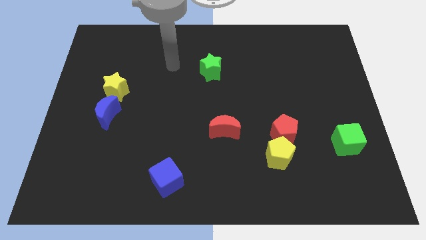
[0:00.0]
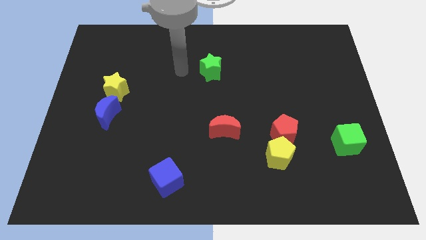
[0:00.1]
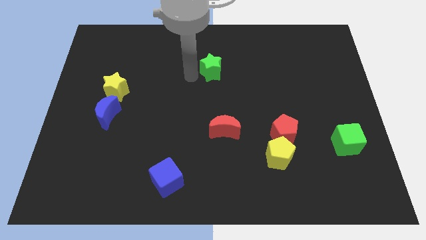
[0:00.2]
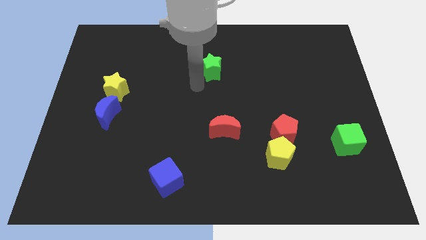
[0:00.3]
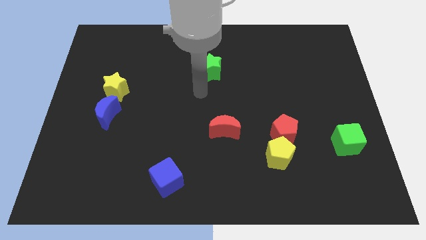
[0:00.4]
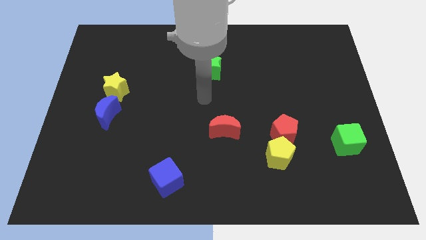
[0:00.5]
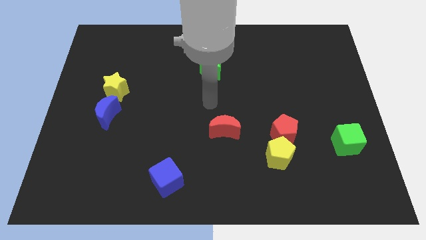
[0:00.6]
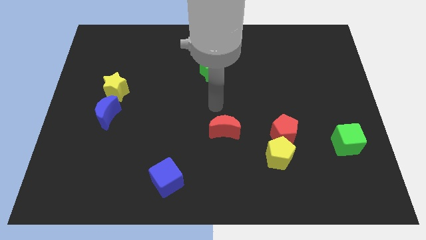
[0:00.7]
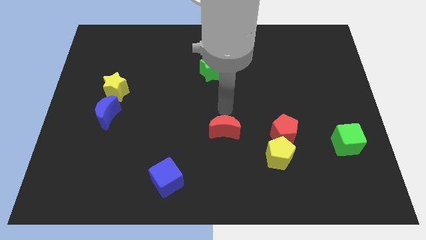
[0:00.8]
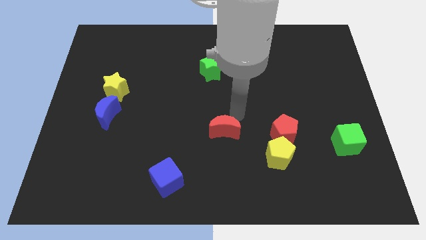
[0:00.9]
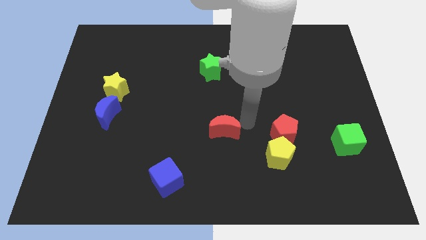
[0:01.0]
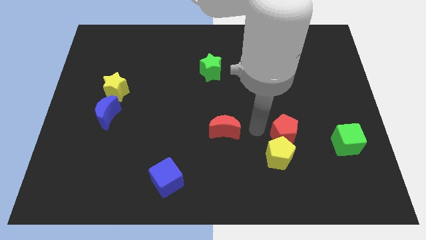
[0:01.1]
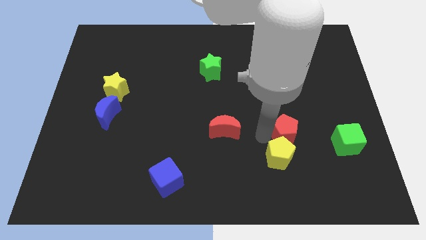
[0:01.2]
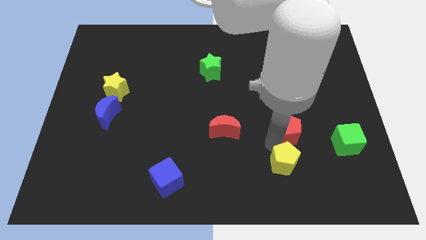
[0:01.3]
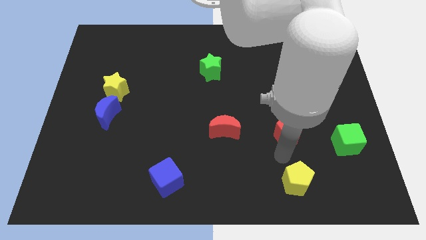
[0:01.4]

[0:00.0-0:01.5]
move the red pentagon away from the yellow pentagon

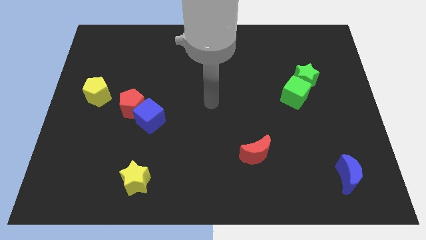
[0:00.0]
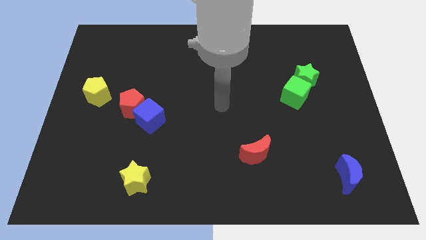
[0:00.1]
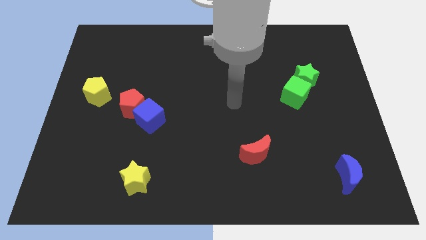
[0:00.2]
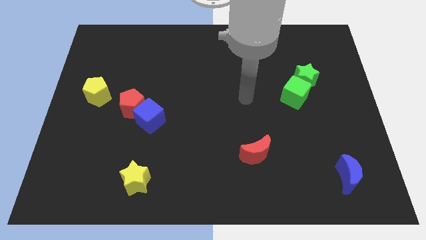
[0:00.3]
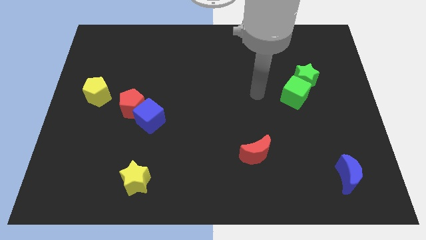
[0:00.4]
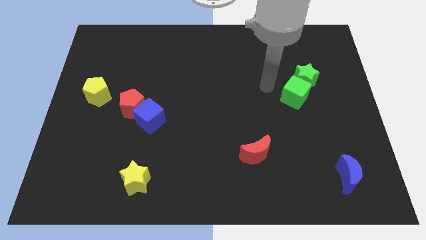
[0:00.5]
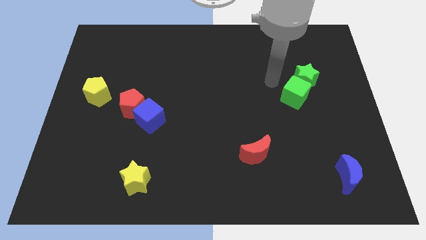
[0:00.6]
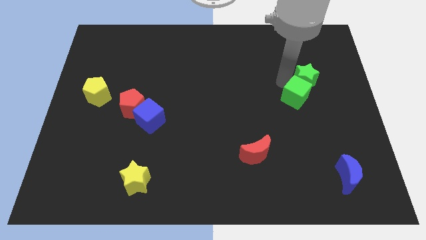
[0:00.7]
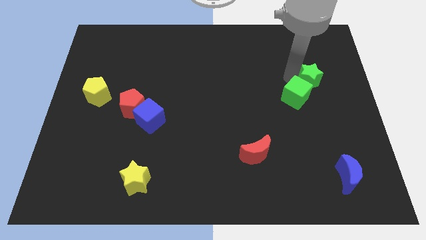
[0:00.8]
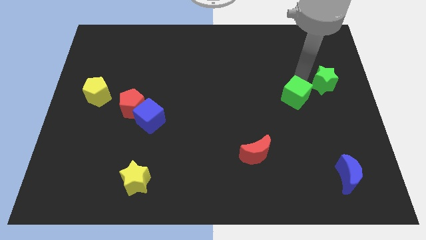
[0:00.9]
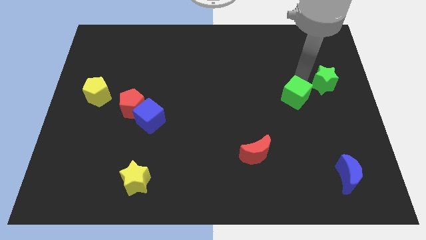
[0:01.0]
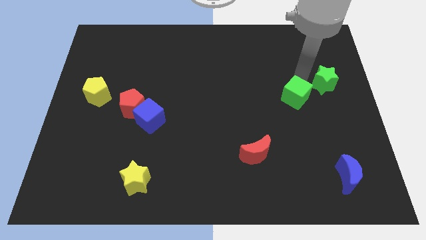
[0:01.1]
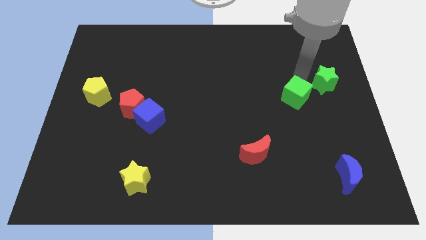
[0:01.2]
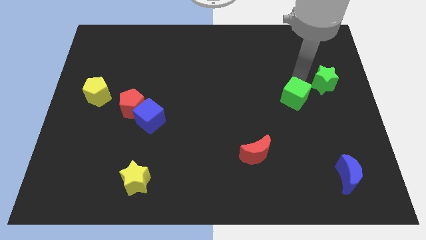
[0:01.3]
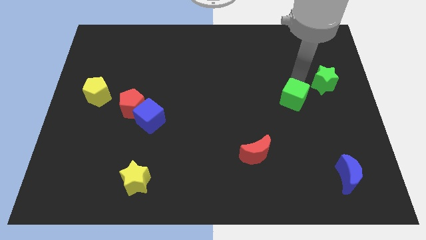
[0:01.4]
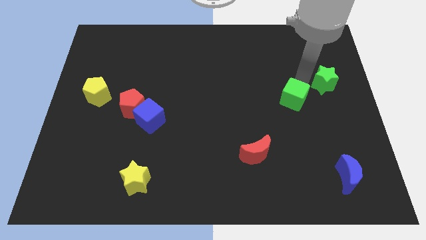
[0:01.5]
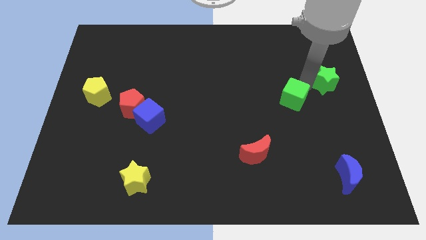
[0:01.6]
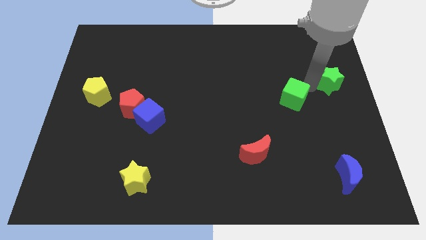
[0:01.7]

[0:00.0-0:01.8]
pull the green cube apart from the green star

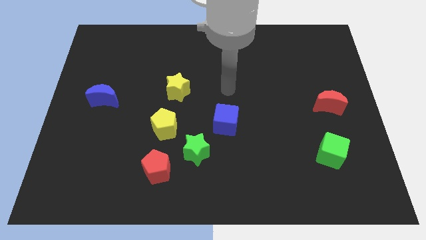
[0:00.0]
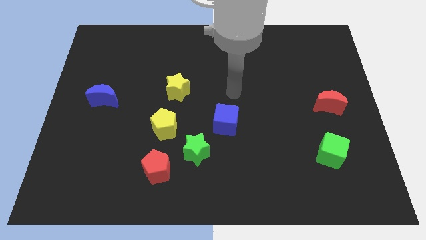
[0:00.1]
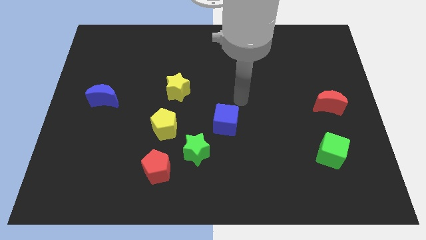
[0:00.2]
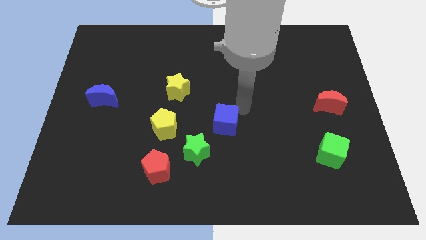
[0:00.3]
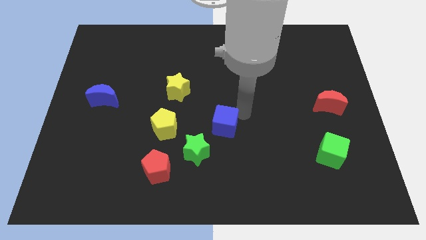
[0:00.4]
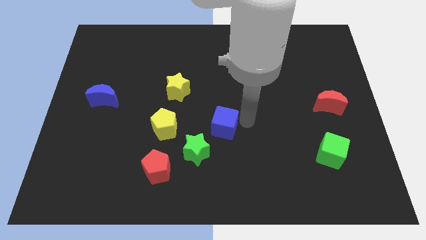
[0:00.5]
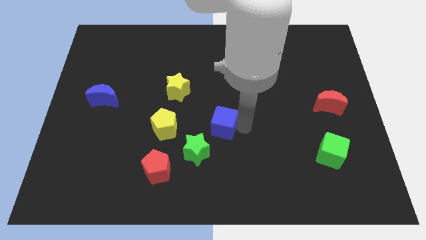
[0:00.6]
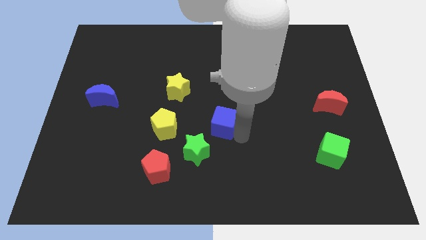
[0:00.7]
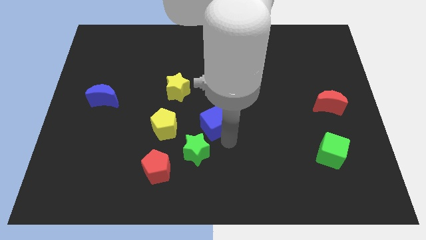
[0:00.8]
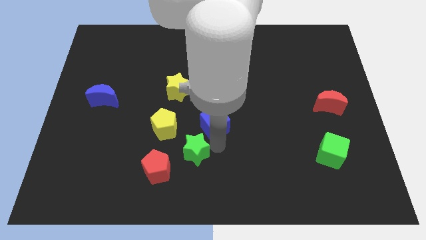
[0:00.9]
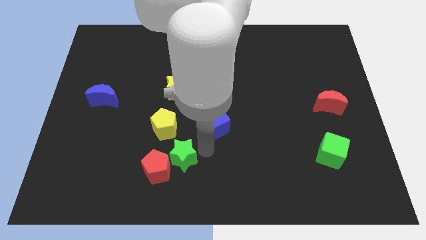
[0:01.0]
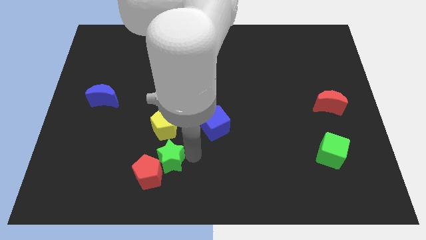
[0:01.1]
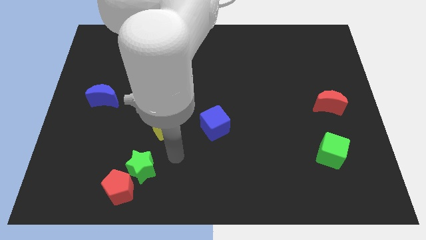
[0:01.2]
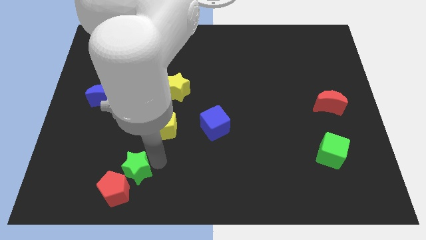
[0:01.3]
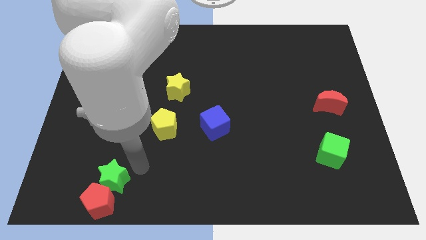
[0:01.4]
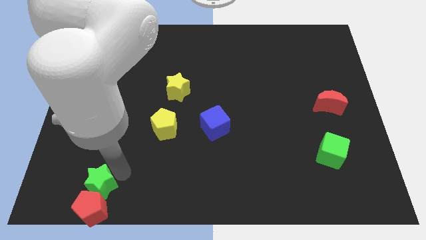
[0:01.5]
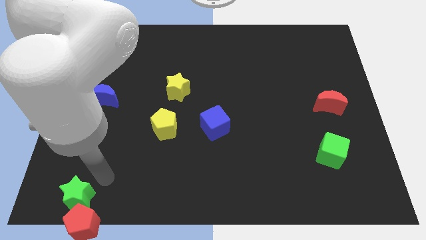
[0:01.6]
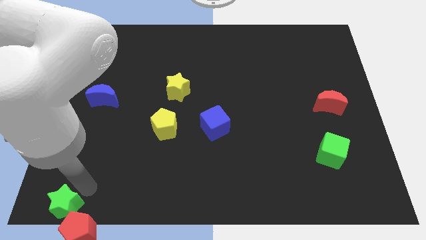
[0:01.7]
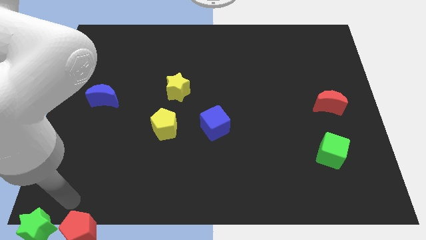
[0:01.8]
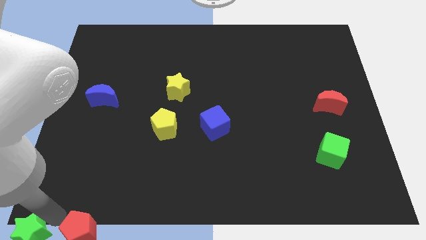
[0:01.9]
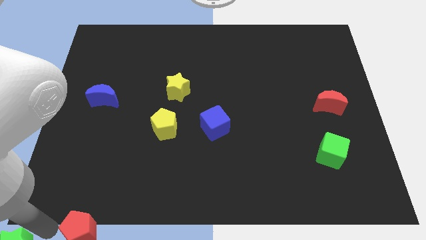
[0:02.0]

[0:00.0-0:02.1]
move the red pentagon away from the green star

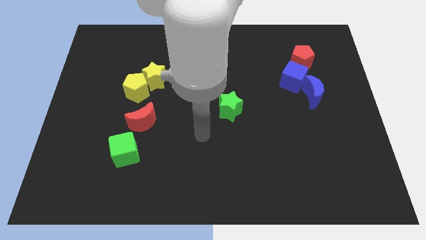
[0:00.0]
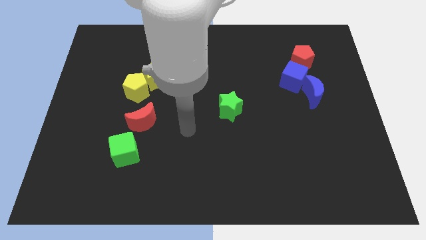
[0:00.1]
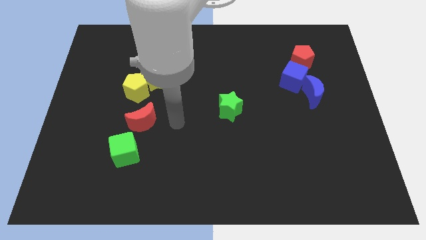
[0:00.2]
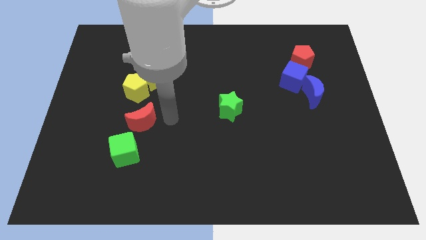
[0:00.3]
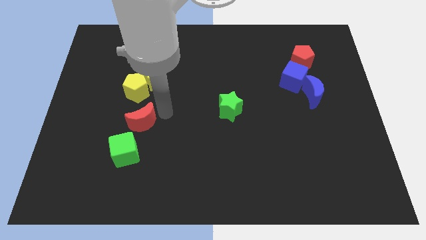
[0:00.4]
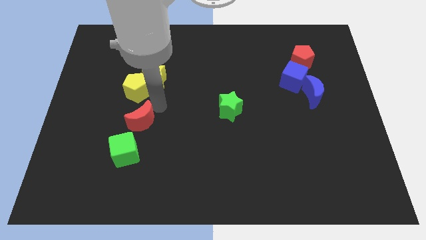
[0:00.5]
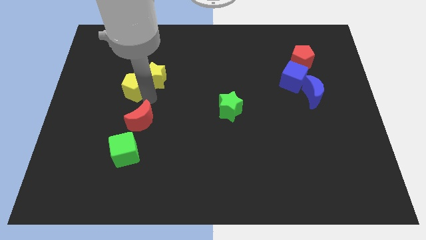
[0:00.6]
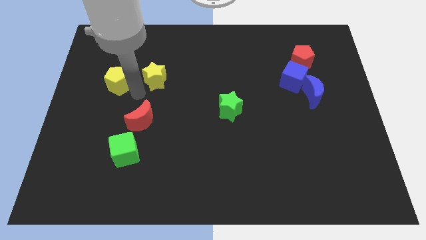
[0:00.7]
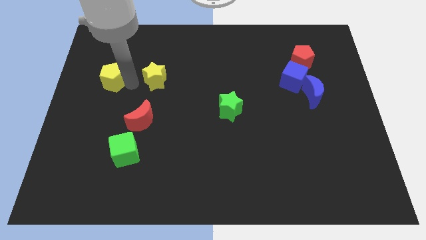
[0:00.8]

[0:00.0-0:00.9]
move the yellow star away from the yellow pentagon

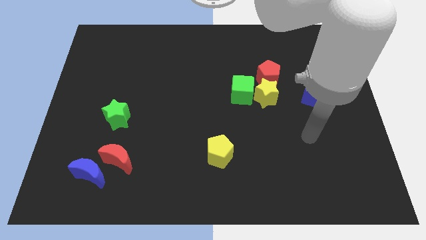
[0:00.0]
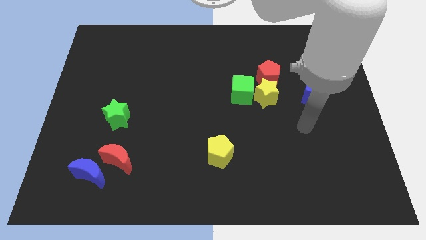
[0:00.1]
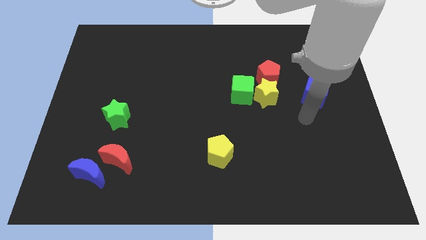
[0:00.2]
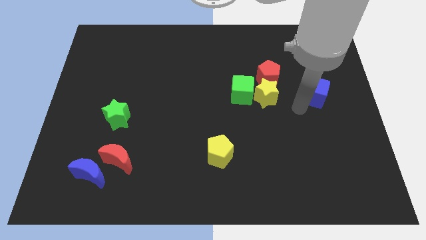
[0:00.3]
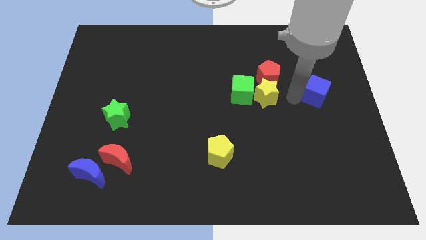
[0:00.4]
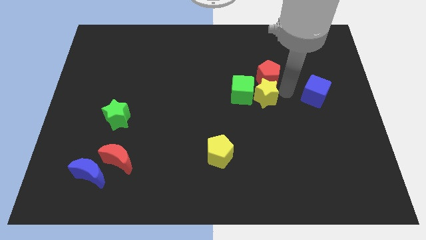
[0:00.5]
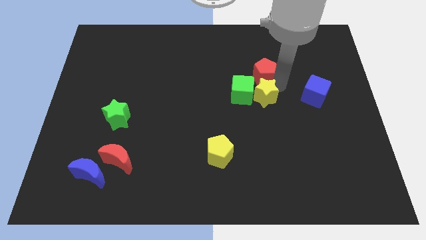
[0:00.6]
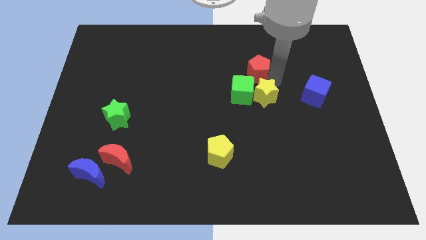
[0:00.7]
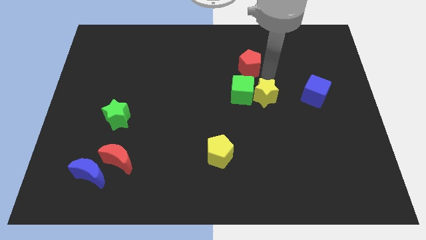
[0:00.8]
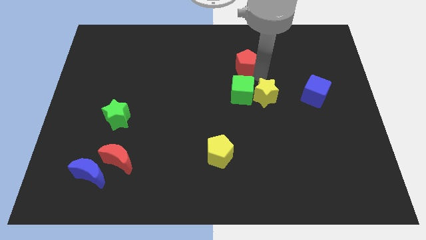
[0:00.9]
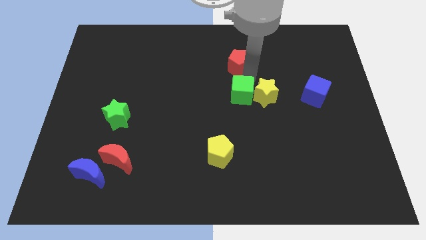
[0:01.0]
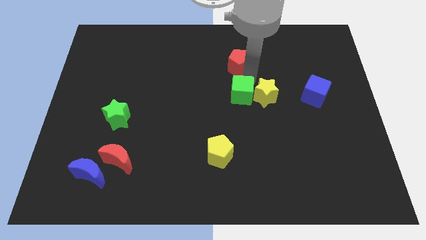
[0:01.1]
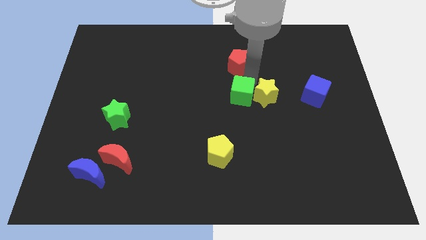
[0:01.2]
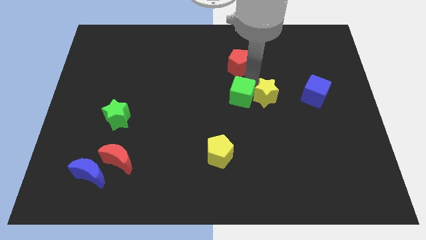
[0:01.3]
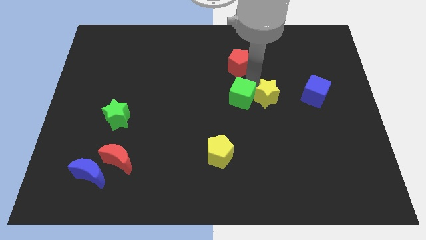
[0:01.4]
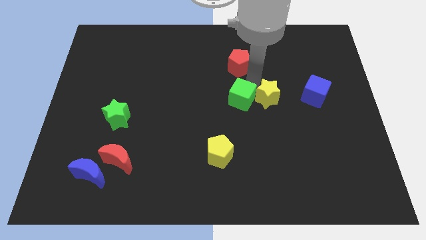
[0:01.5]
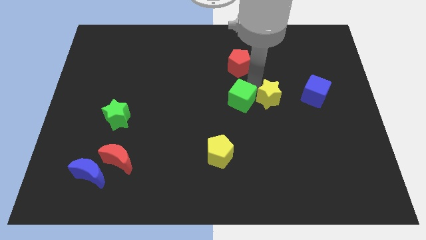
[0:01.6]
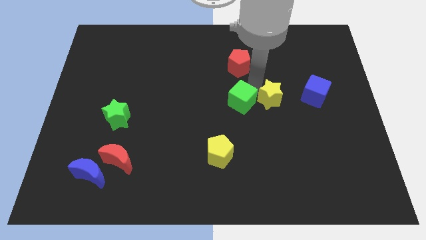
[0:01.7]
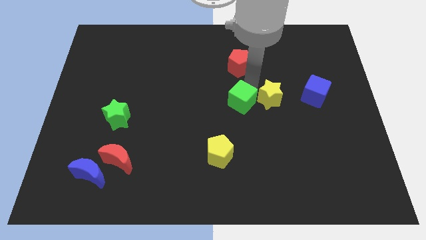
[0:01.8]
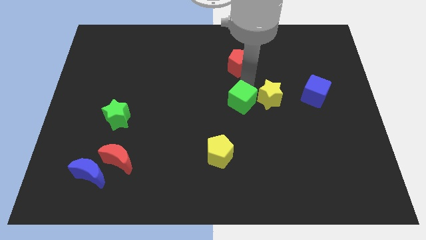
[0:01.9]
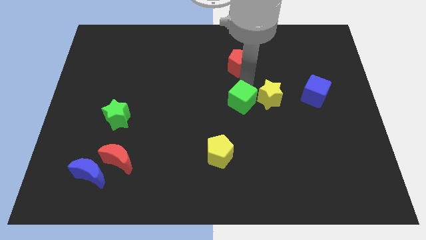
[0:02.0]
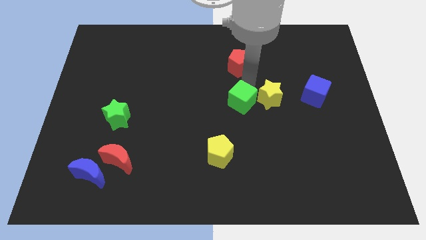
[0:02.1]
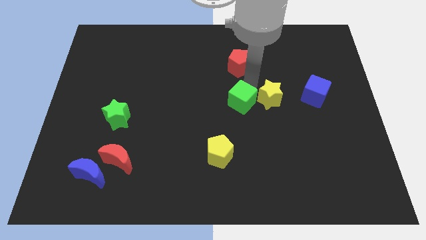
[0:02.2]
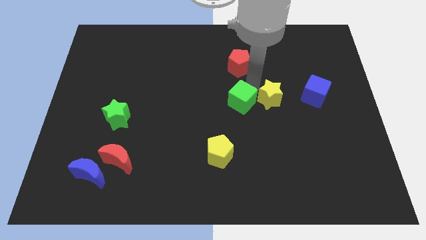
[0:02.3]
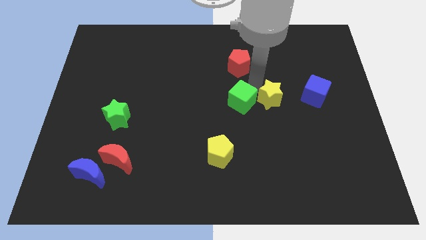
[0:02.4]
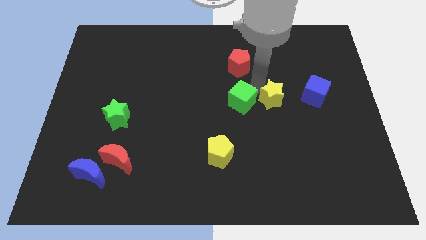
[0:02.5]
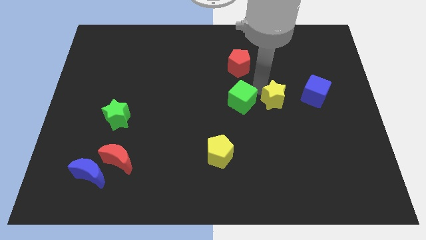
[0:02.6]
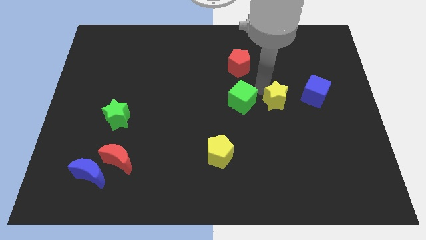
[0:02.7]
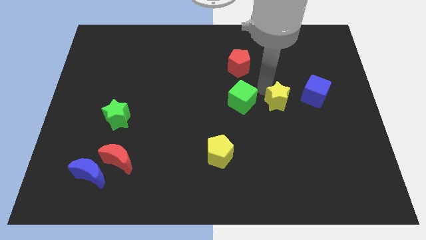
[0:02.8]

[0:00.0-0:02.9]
pull the yellow star apart from the green cube and red pentagon

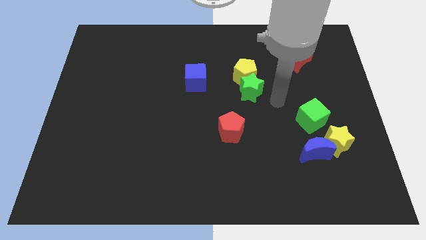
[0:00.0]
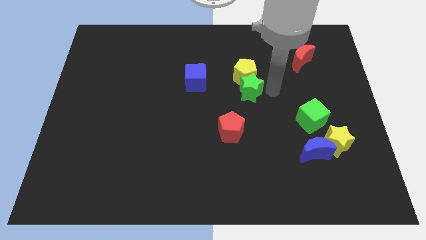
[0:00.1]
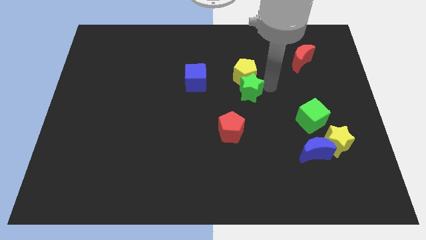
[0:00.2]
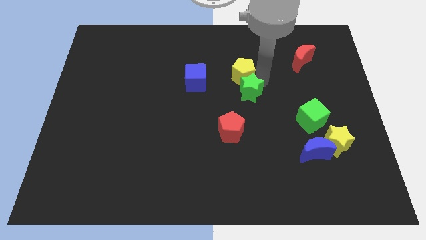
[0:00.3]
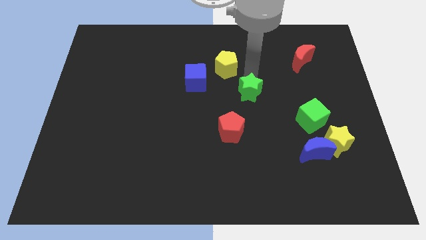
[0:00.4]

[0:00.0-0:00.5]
move the green star away from the yellow pentagon
